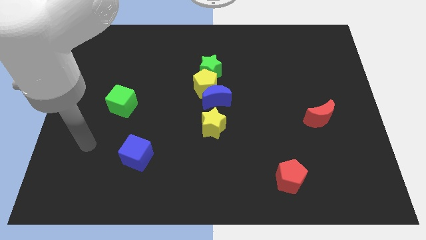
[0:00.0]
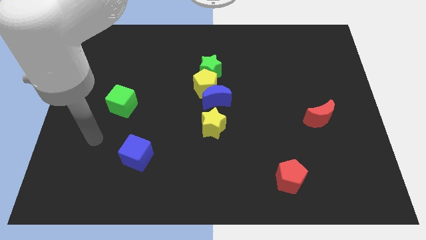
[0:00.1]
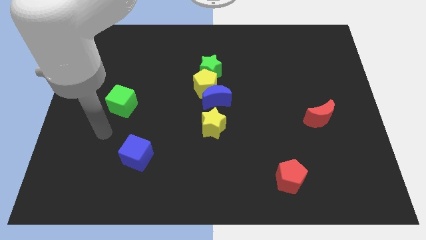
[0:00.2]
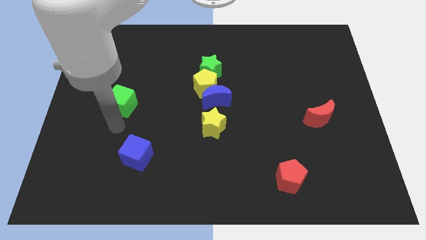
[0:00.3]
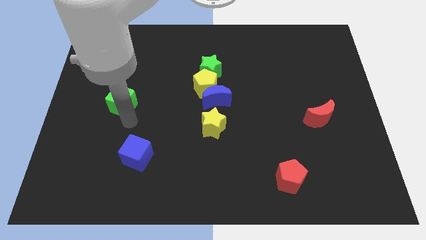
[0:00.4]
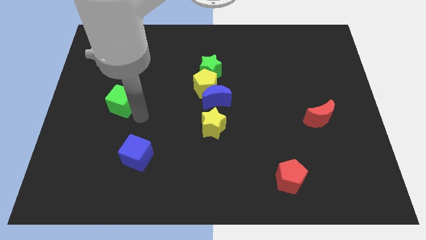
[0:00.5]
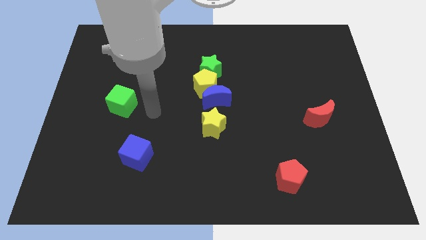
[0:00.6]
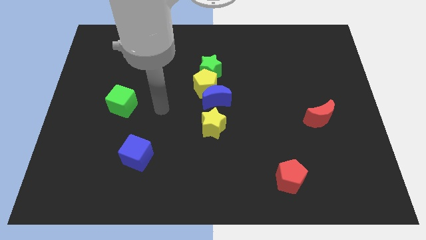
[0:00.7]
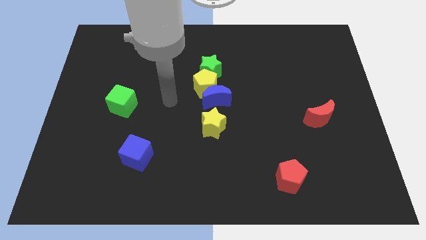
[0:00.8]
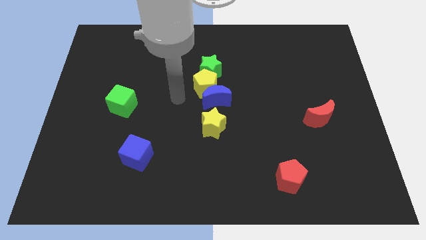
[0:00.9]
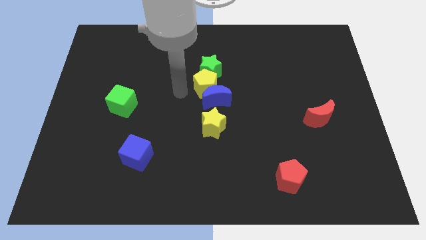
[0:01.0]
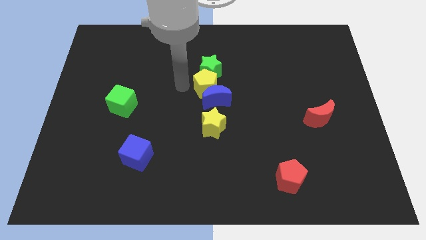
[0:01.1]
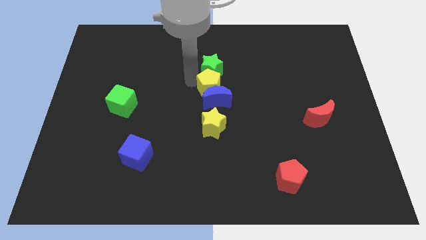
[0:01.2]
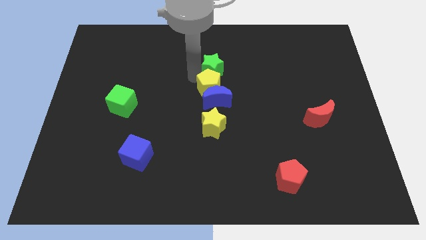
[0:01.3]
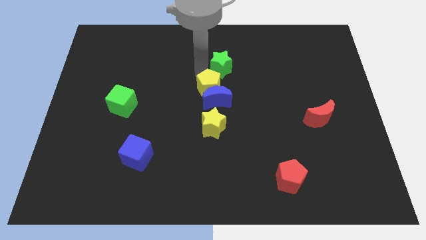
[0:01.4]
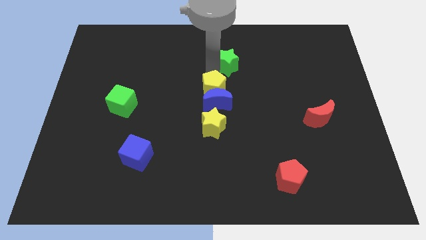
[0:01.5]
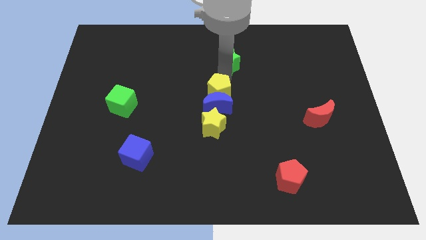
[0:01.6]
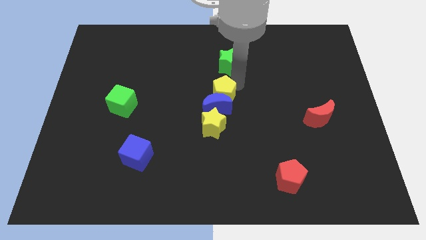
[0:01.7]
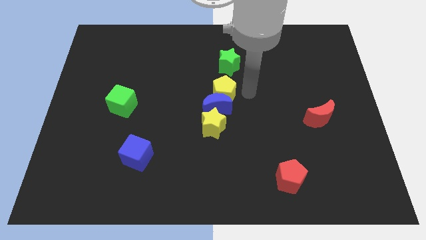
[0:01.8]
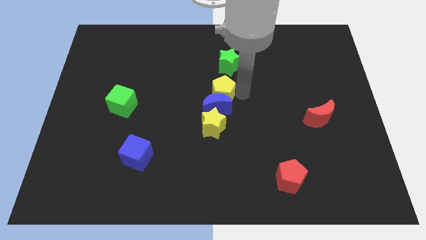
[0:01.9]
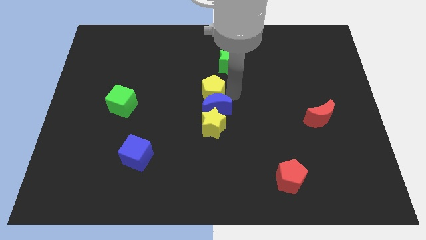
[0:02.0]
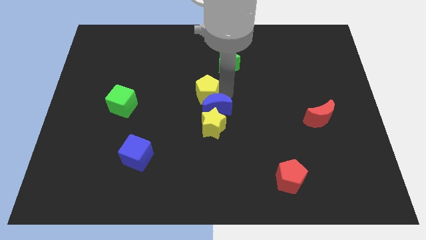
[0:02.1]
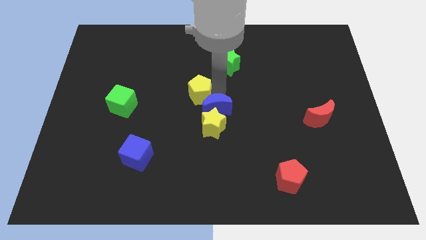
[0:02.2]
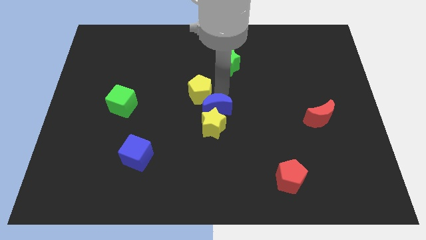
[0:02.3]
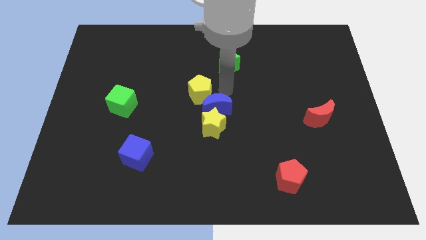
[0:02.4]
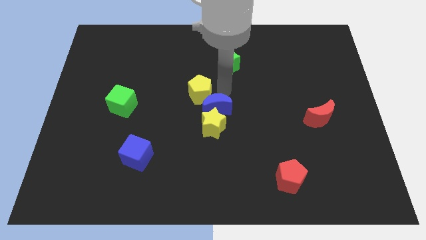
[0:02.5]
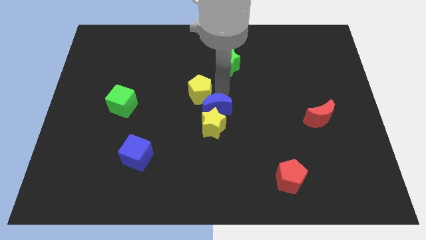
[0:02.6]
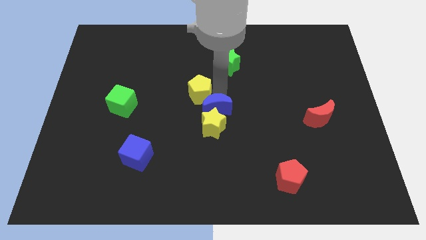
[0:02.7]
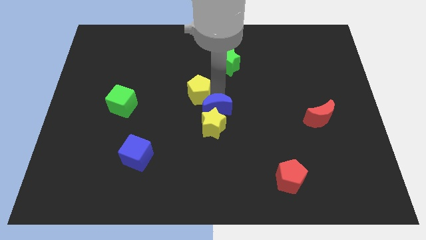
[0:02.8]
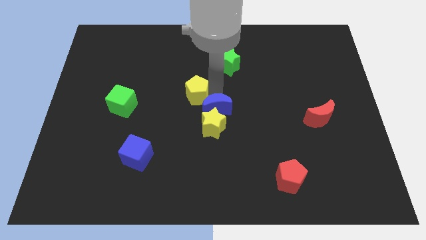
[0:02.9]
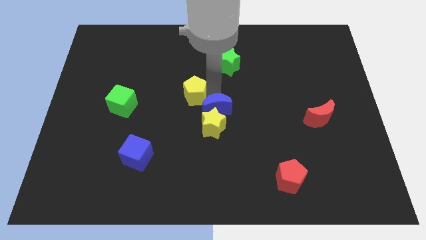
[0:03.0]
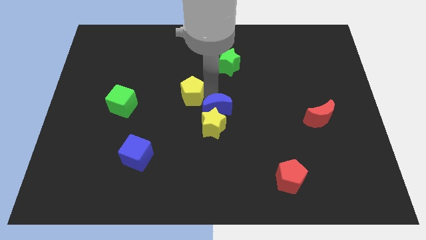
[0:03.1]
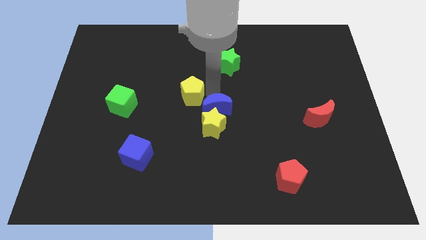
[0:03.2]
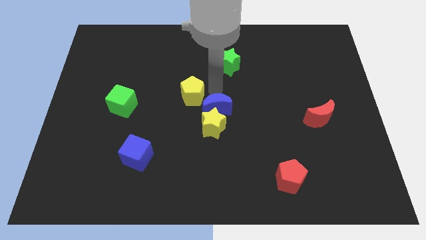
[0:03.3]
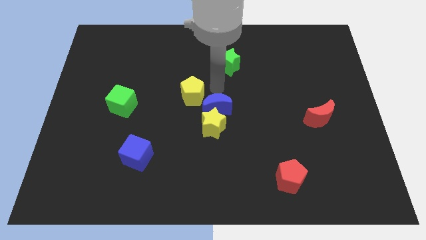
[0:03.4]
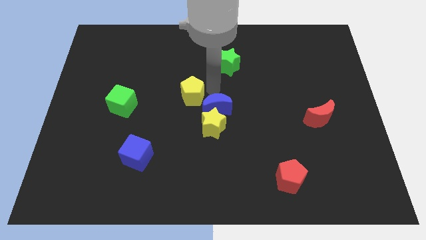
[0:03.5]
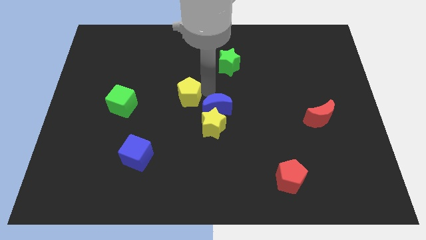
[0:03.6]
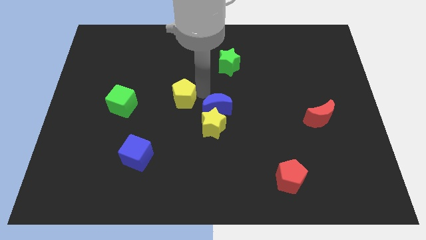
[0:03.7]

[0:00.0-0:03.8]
move the yellow pentagon away from the blue moon and green star

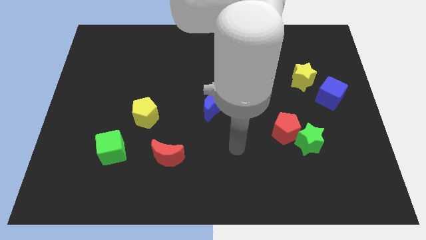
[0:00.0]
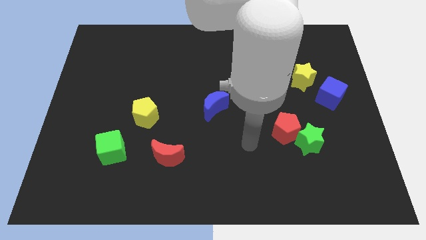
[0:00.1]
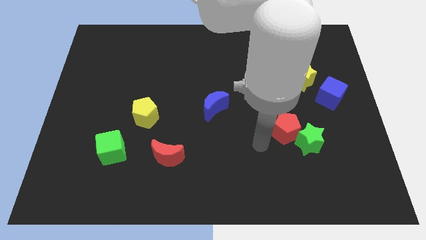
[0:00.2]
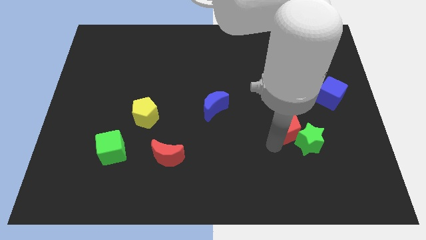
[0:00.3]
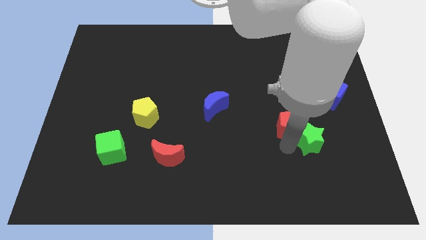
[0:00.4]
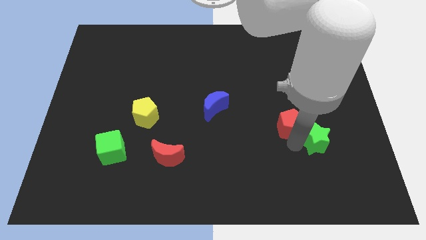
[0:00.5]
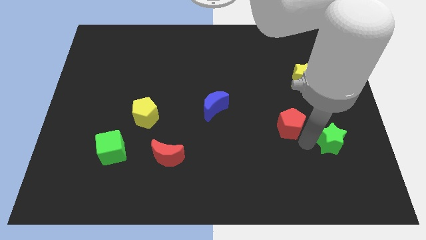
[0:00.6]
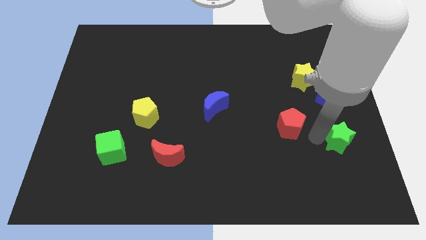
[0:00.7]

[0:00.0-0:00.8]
separate the red pentagon from the green star

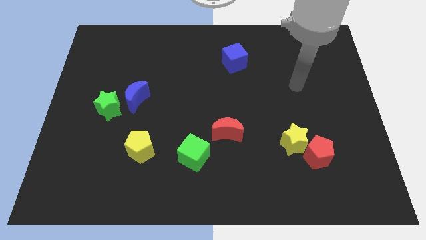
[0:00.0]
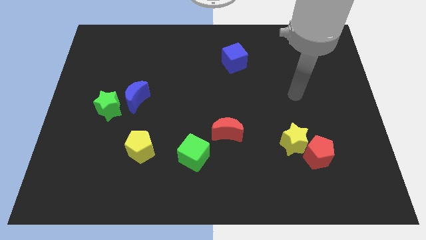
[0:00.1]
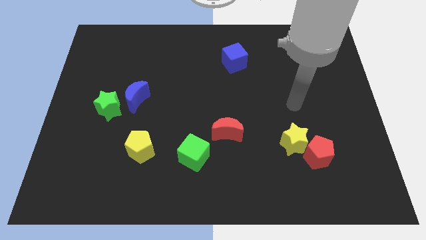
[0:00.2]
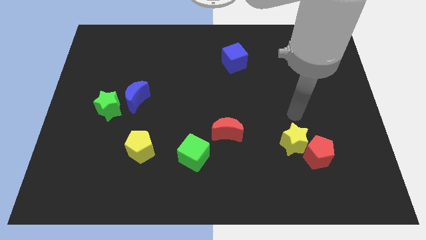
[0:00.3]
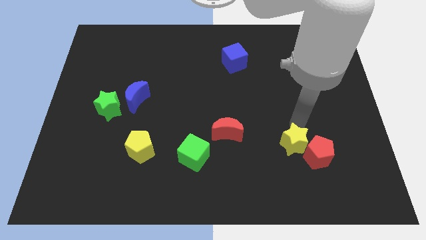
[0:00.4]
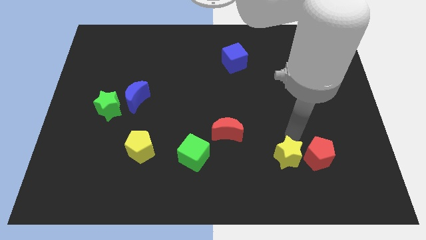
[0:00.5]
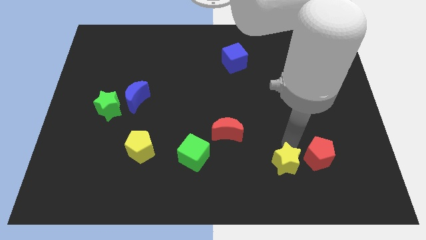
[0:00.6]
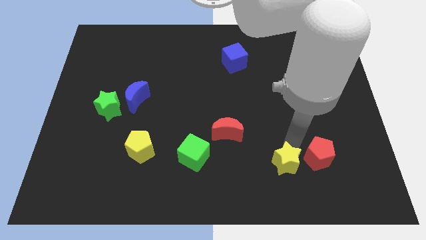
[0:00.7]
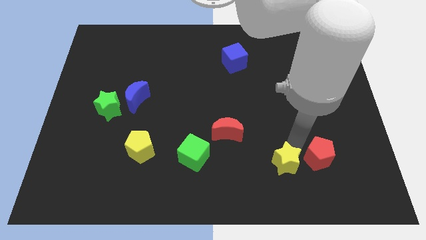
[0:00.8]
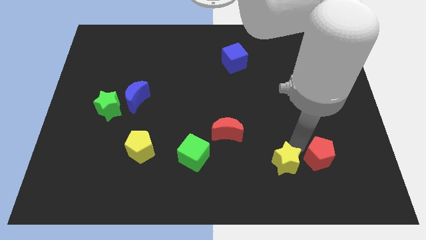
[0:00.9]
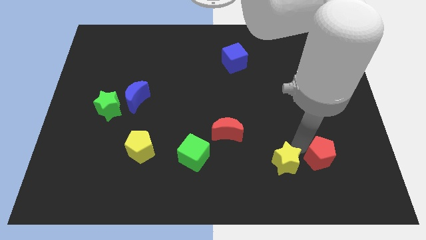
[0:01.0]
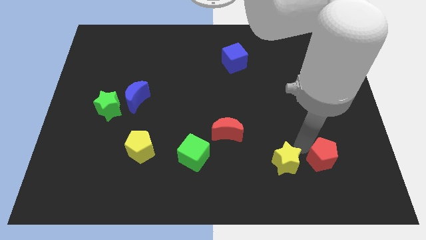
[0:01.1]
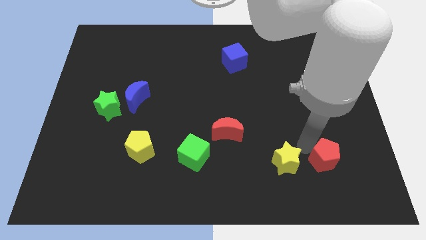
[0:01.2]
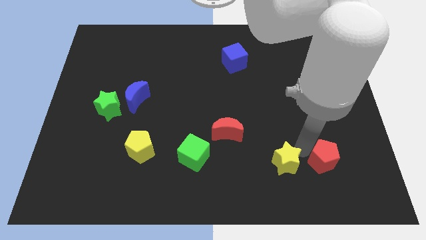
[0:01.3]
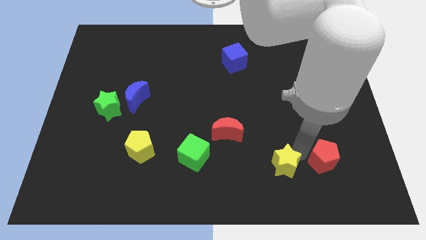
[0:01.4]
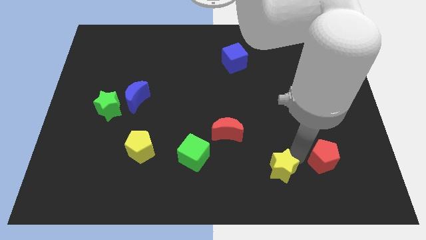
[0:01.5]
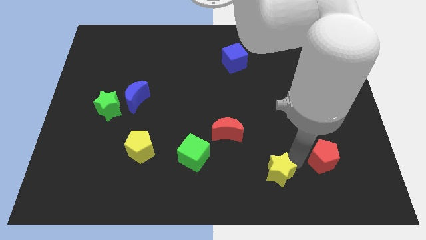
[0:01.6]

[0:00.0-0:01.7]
move the red pentagon away from the yellow star

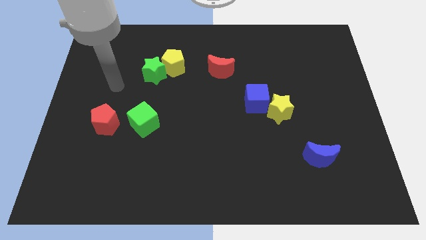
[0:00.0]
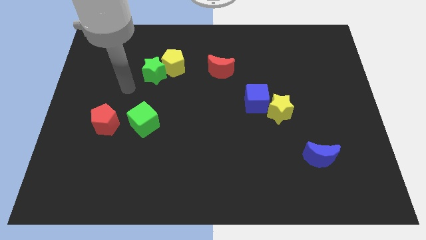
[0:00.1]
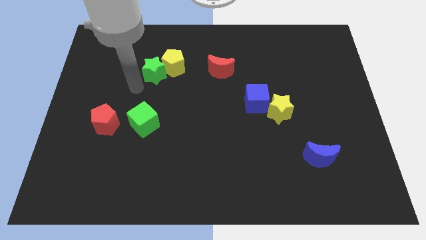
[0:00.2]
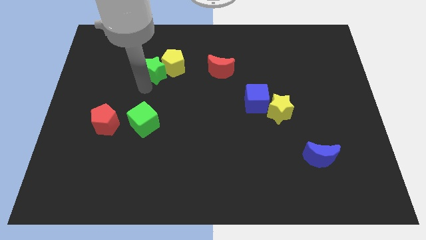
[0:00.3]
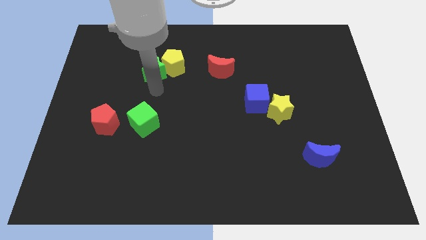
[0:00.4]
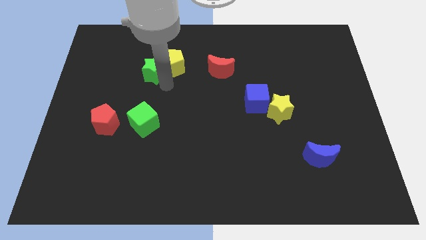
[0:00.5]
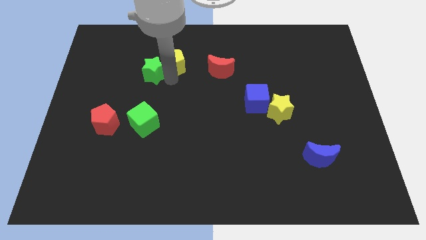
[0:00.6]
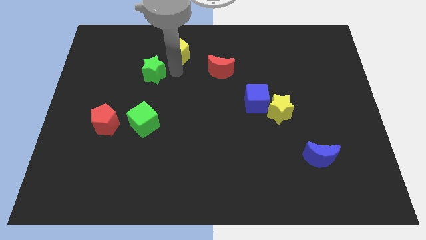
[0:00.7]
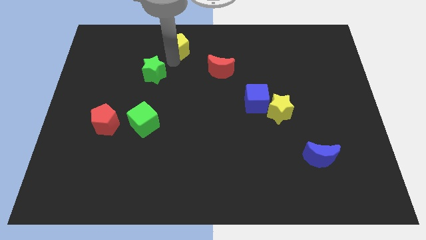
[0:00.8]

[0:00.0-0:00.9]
move the green star away from the yellow pentagon

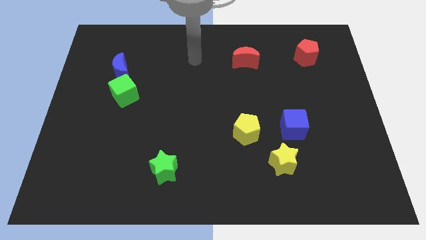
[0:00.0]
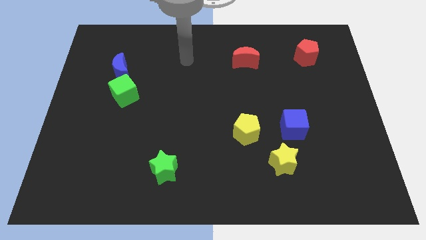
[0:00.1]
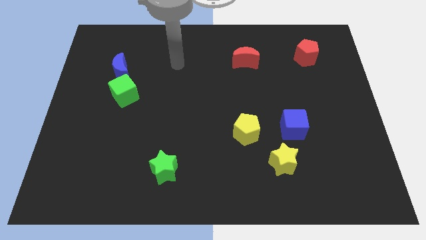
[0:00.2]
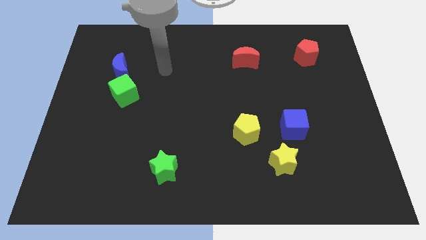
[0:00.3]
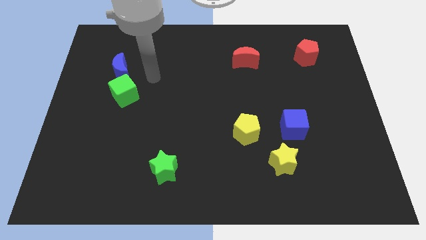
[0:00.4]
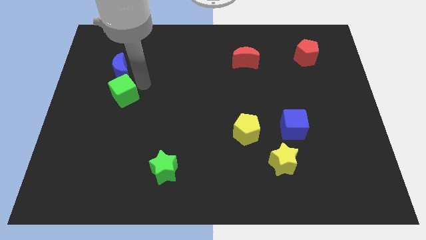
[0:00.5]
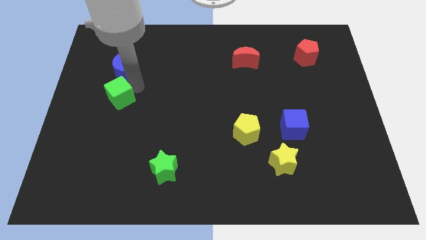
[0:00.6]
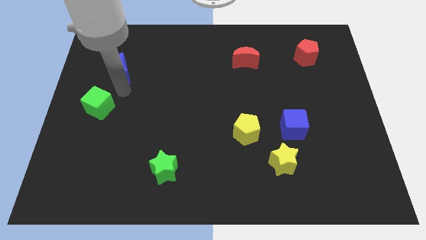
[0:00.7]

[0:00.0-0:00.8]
move the blue moon away from the green cube

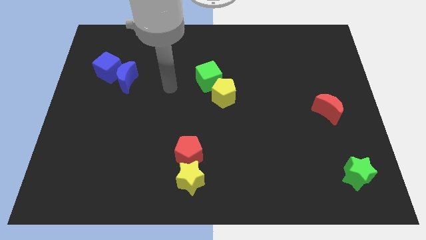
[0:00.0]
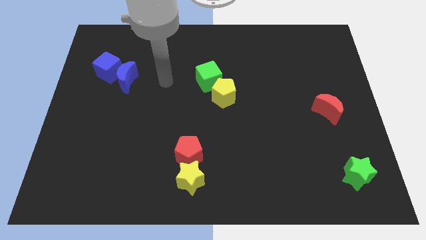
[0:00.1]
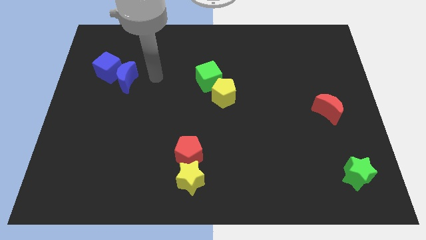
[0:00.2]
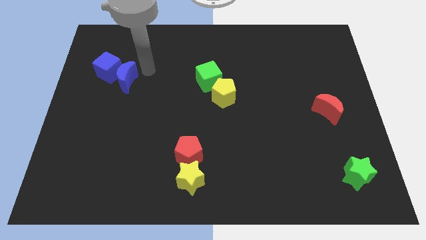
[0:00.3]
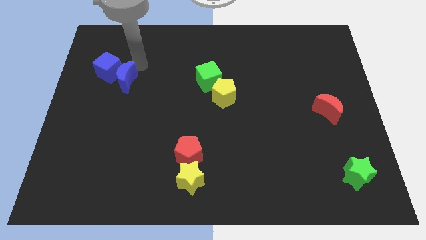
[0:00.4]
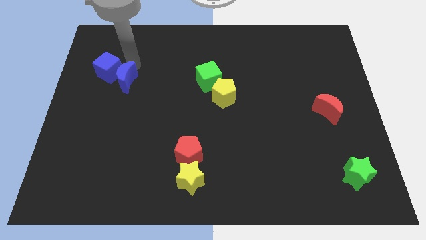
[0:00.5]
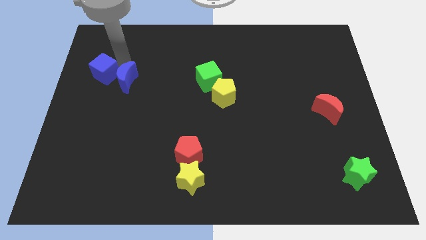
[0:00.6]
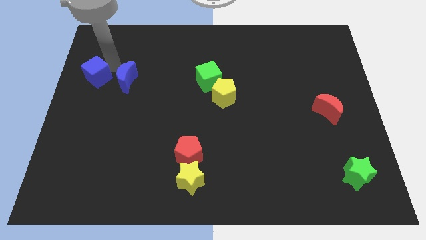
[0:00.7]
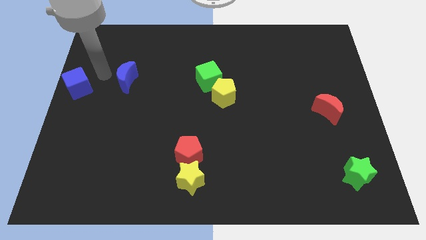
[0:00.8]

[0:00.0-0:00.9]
move the blue moon away from the blue cube

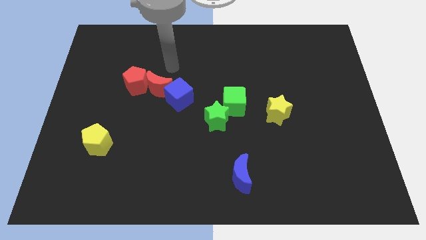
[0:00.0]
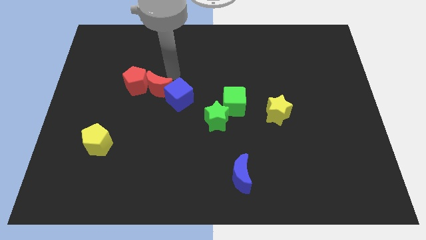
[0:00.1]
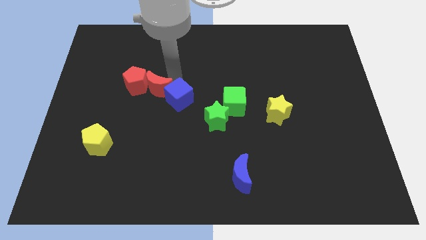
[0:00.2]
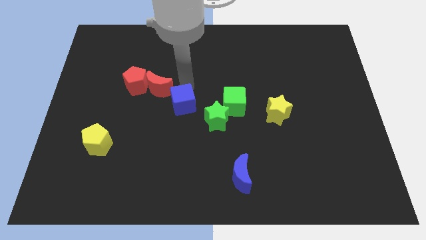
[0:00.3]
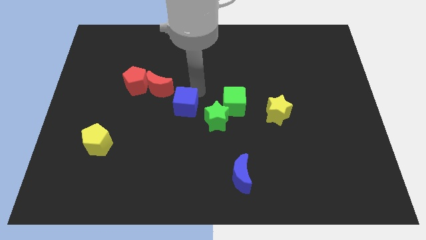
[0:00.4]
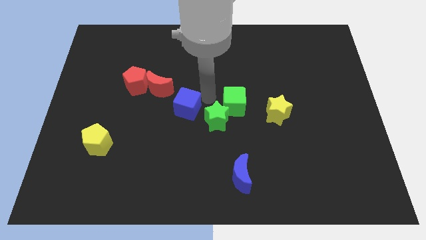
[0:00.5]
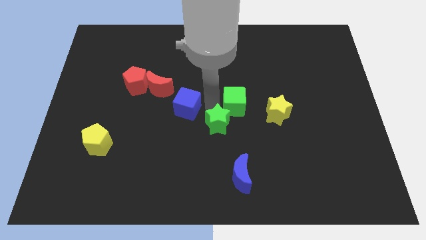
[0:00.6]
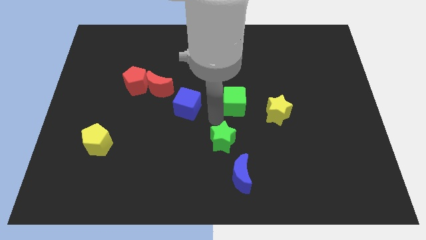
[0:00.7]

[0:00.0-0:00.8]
separate the green cube from the green star
